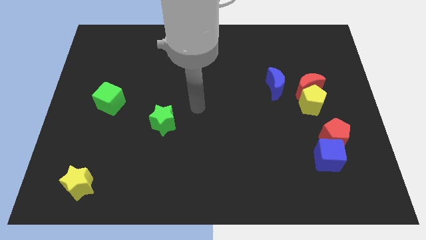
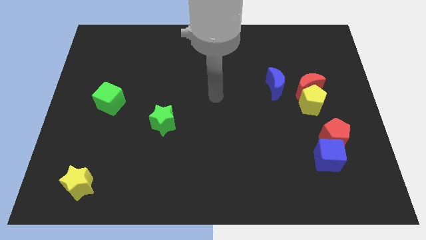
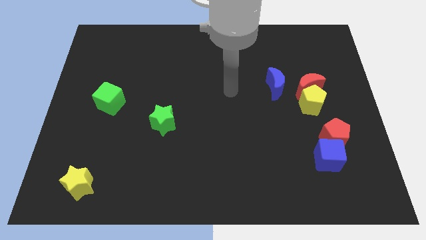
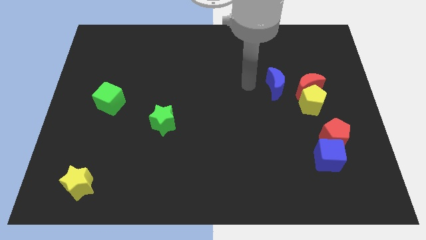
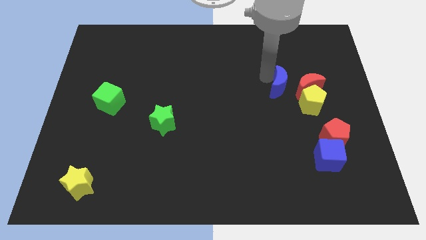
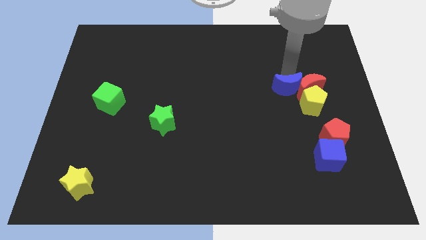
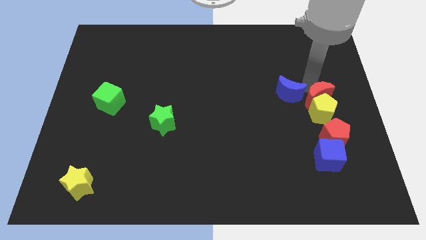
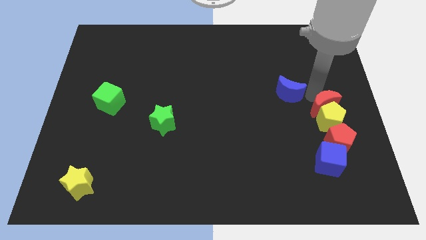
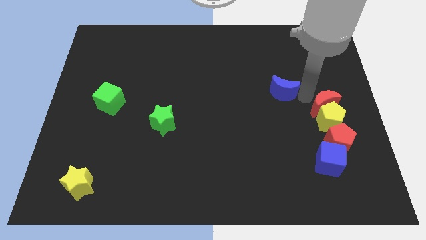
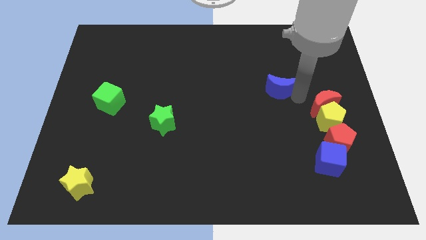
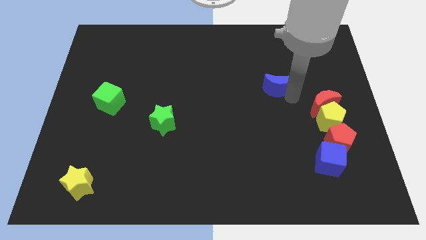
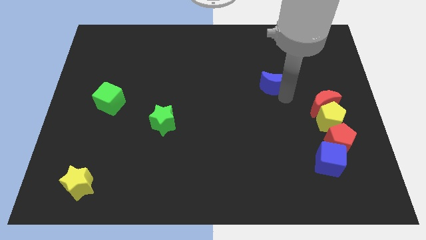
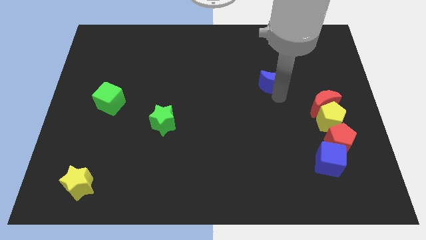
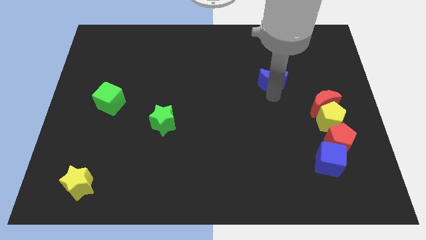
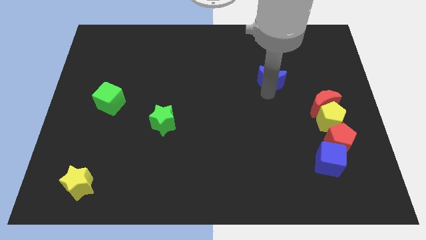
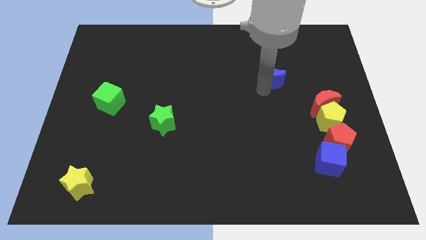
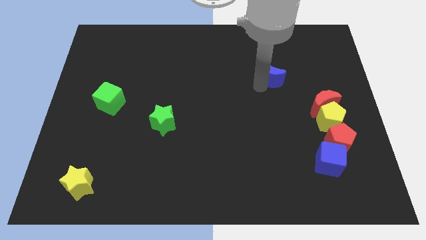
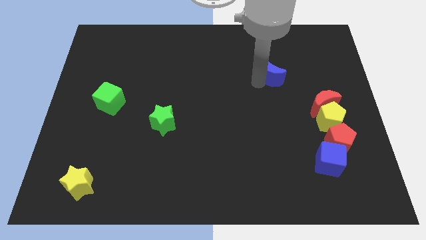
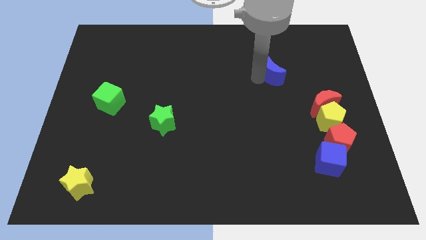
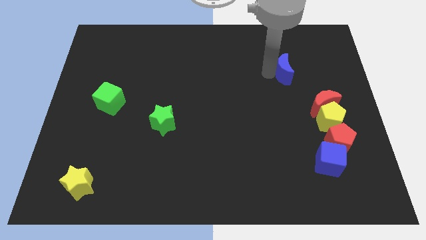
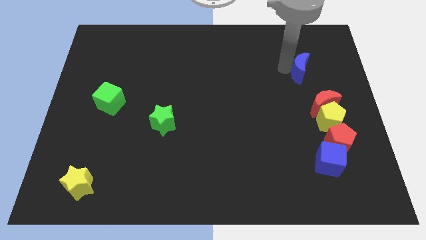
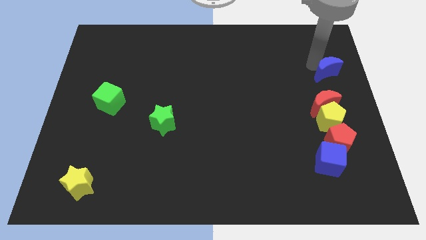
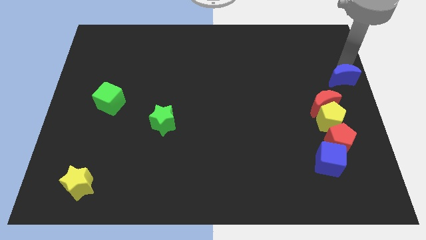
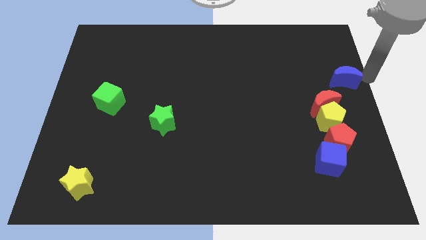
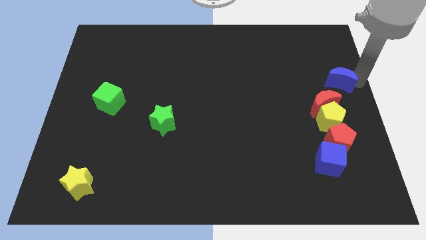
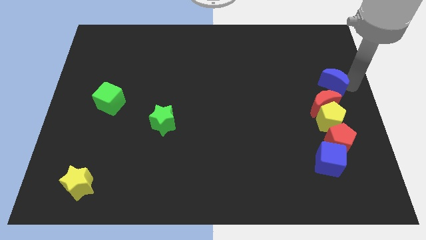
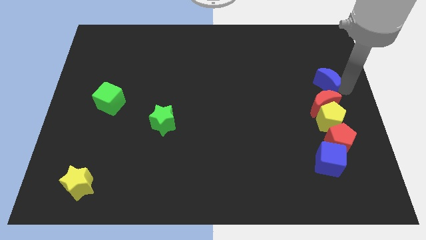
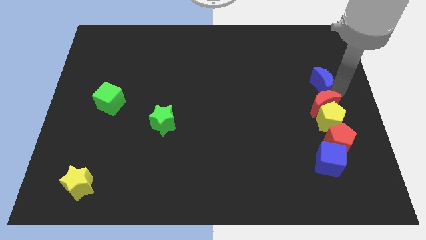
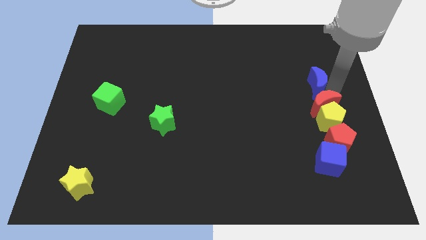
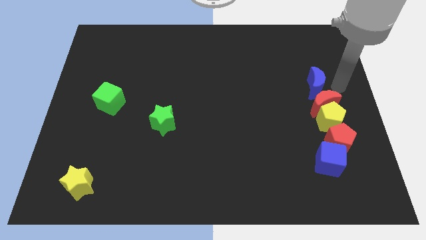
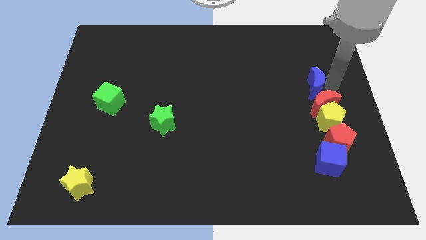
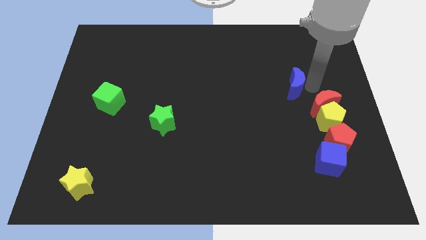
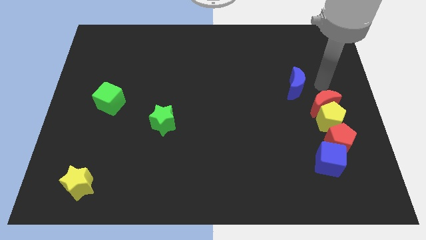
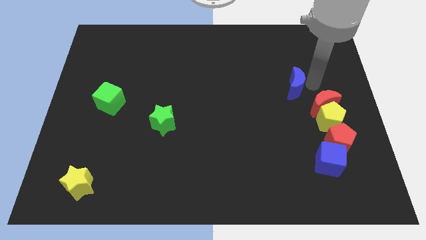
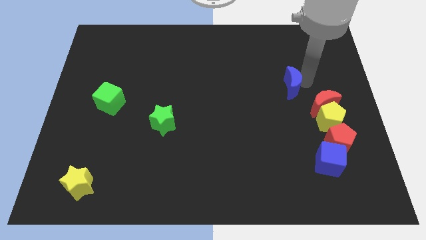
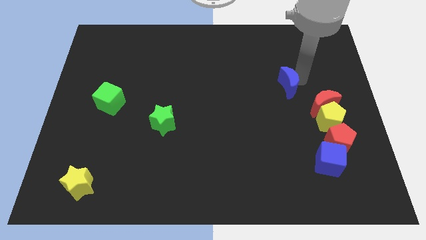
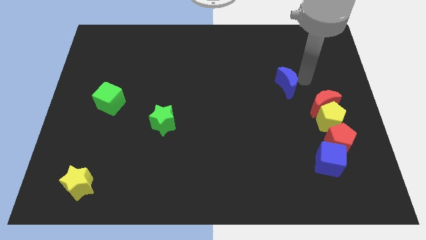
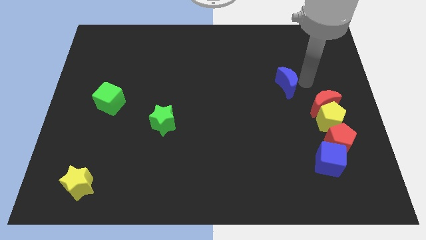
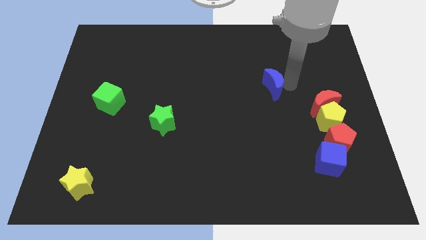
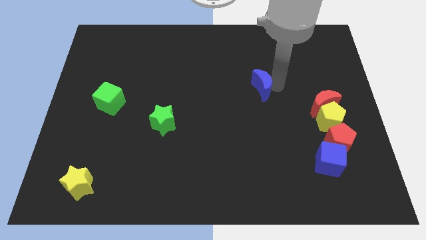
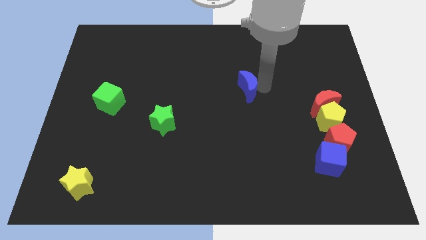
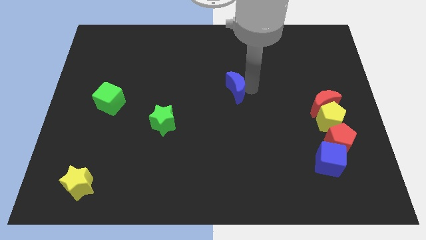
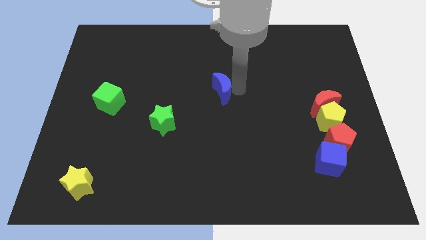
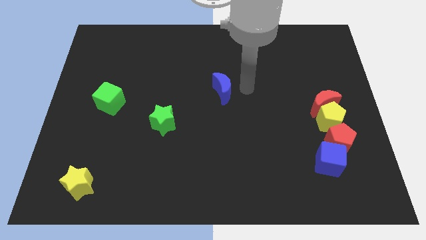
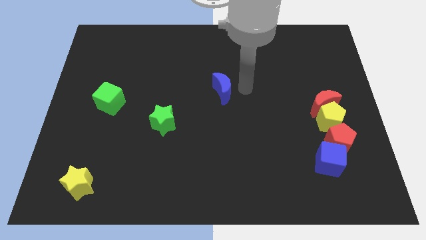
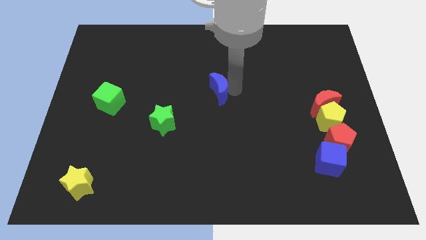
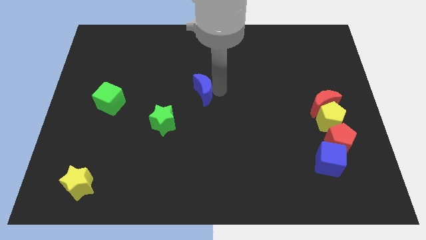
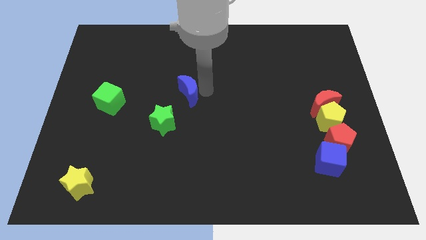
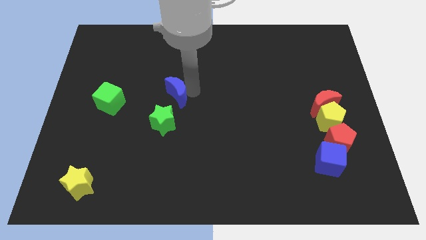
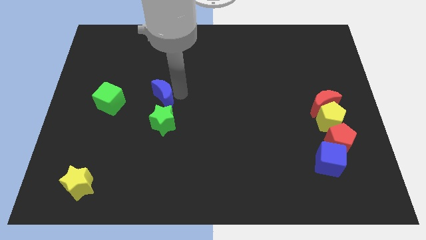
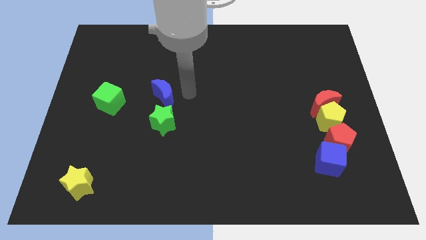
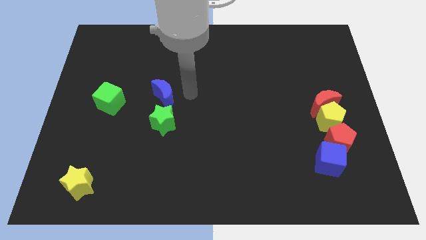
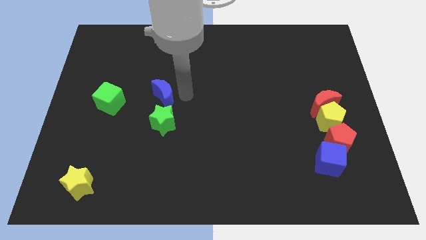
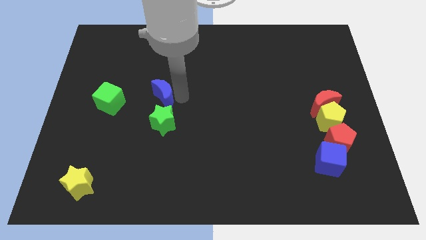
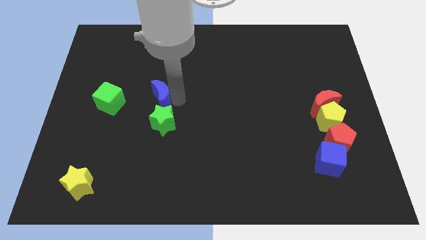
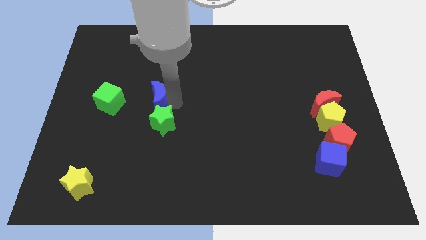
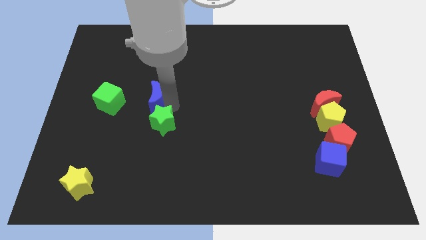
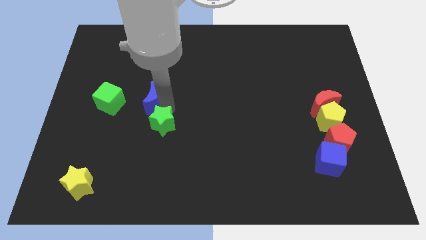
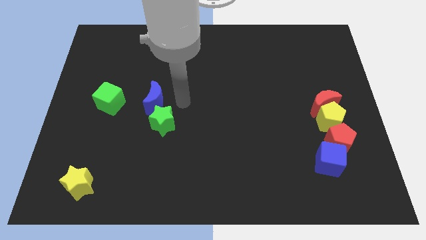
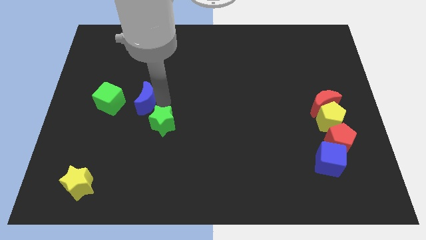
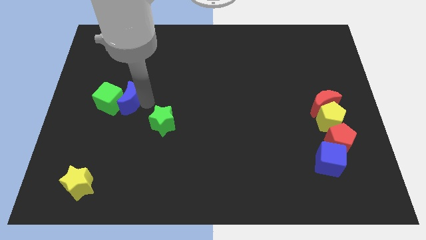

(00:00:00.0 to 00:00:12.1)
slide the blue moon next to the green cube

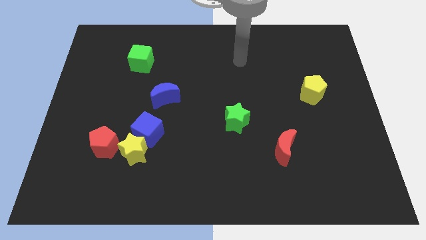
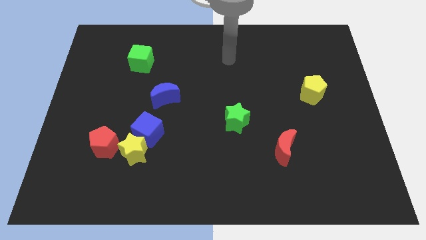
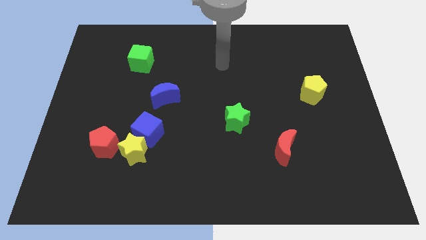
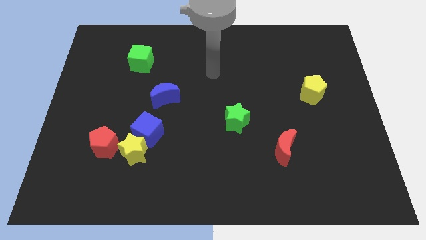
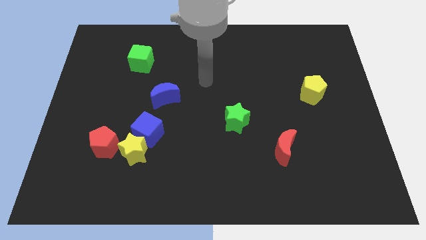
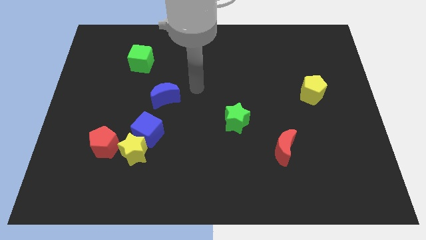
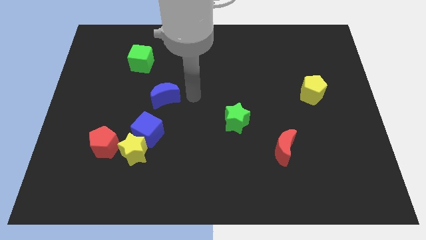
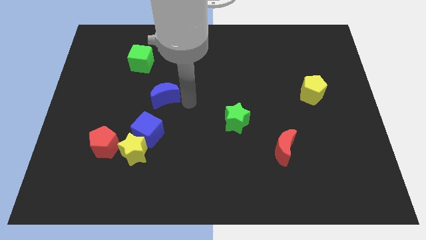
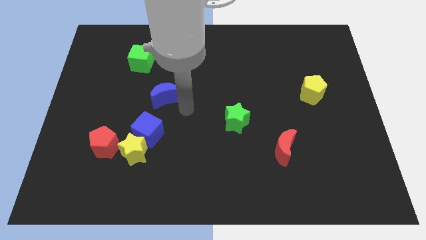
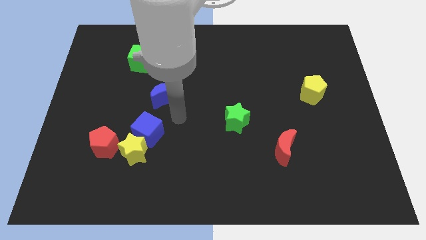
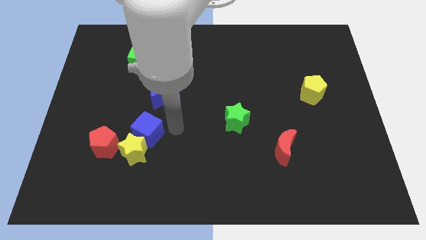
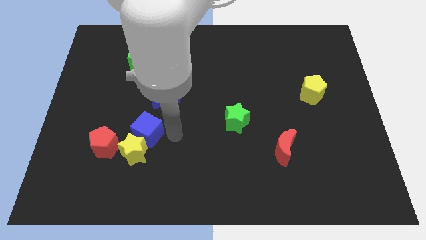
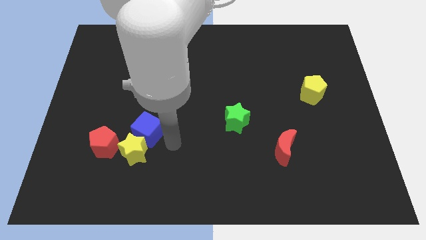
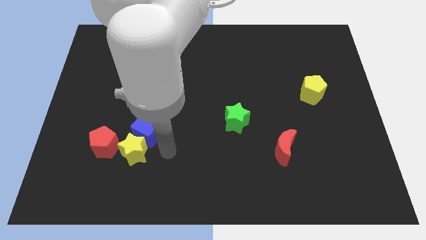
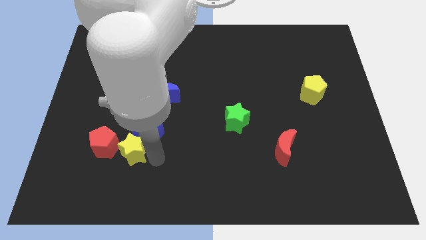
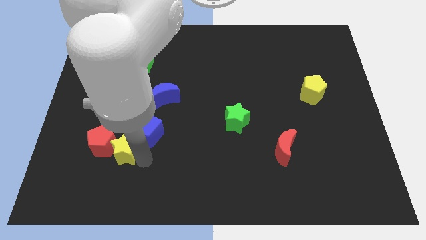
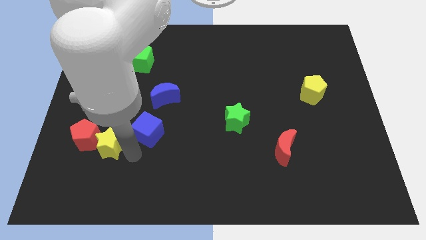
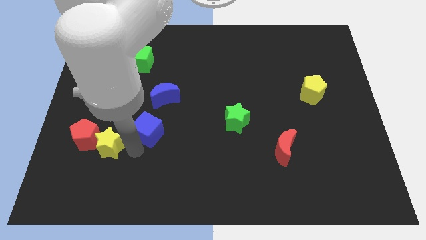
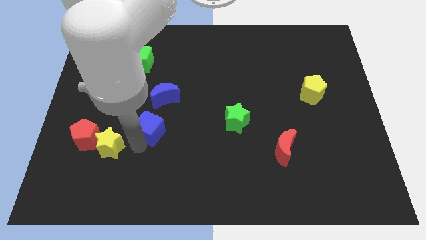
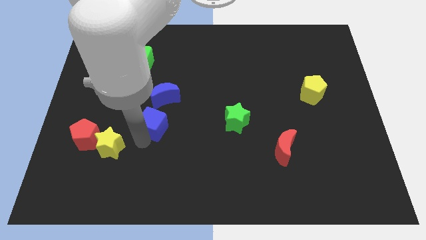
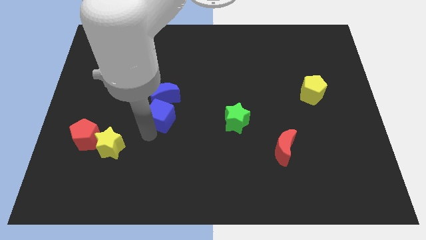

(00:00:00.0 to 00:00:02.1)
move the blue cube towards the blue moon
